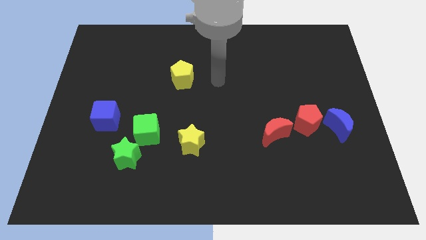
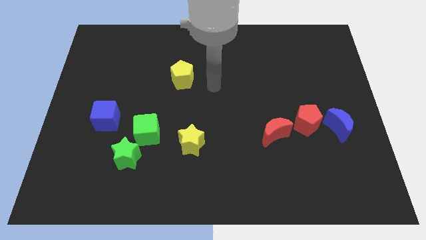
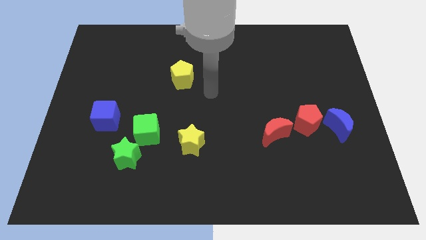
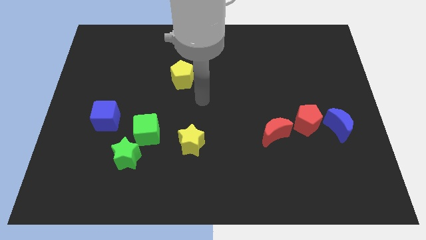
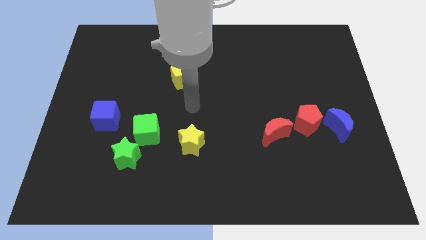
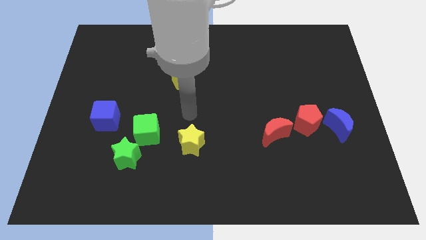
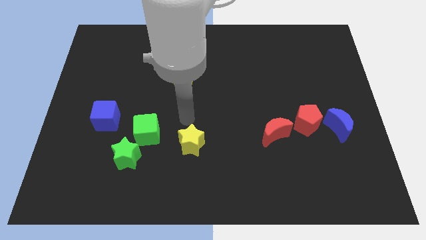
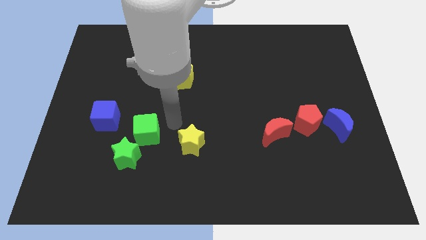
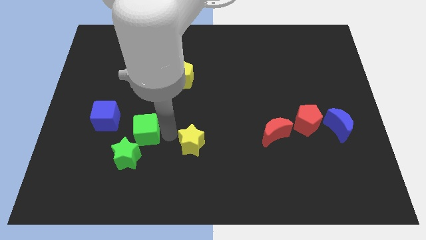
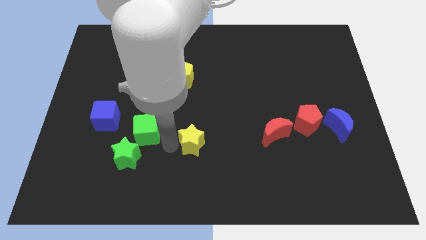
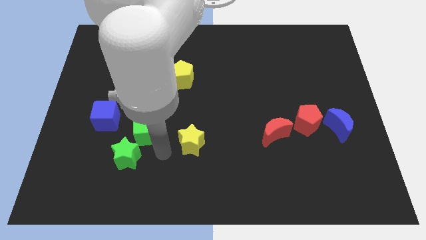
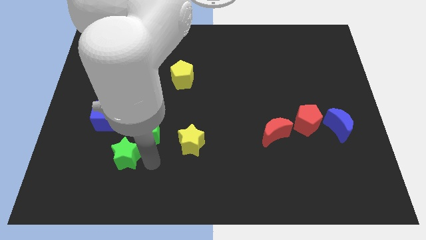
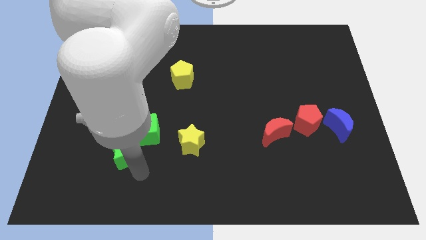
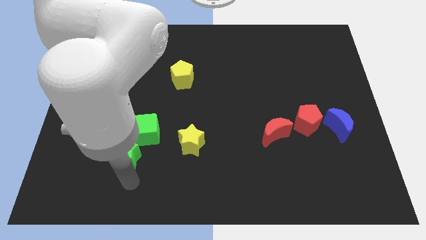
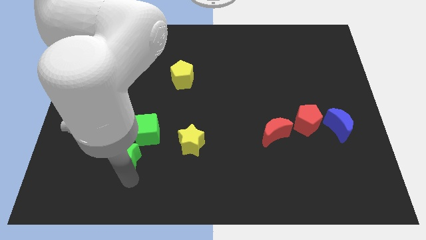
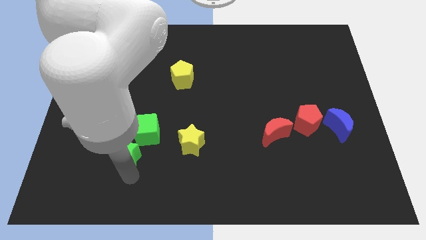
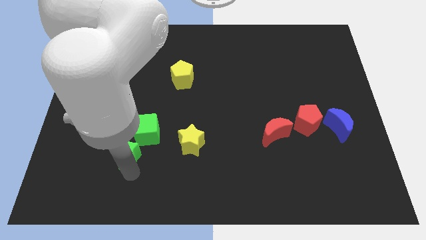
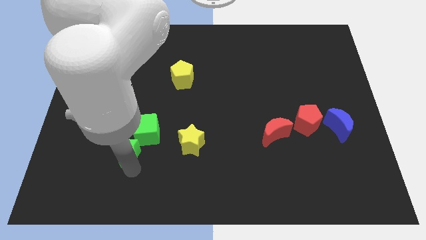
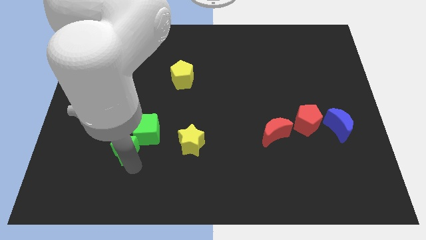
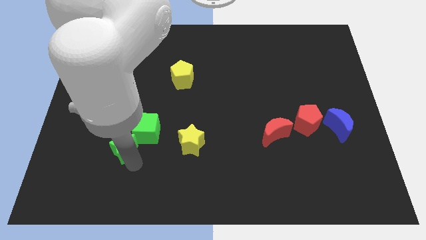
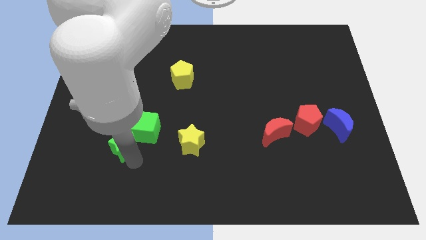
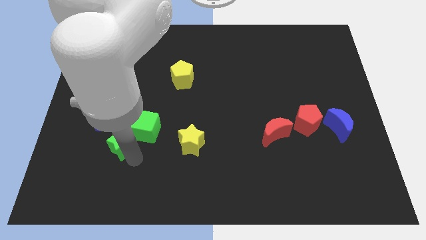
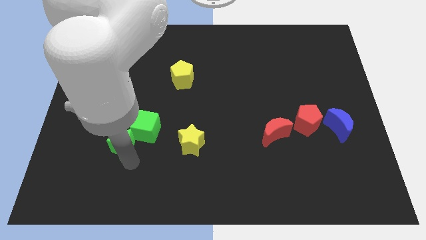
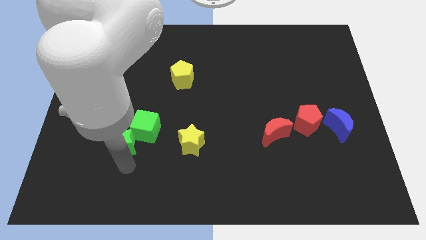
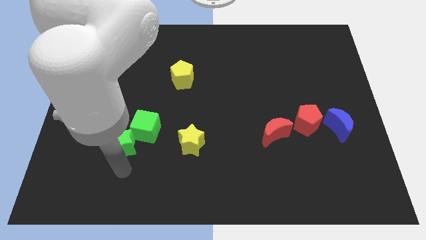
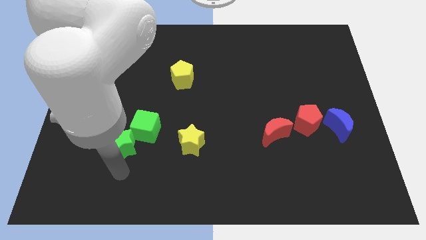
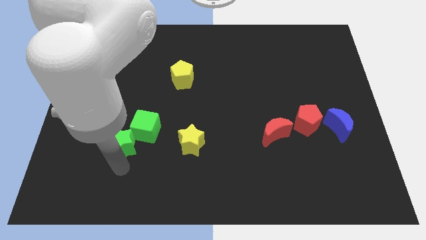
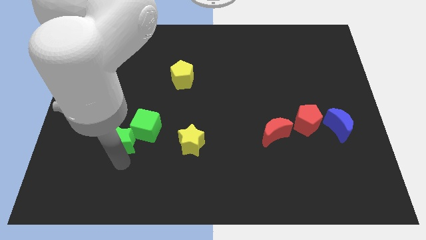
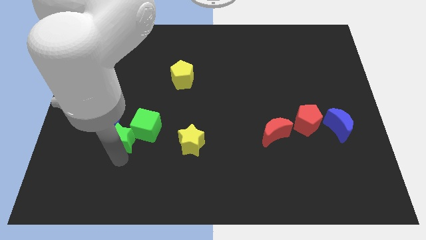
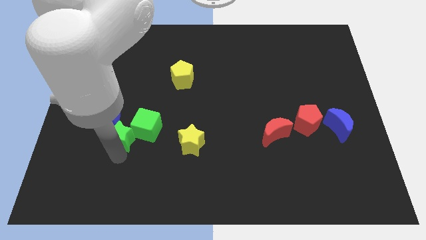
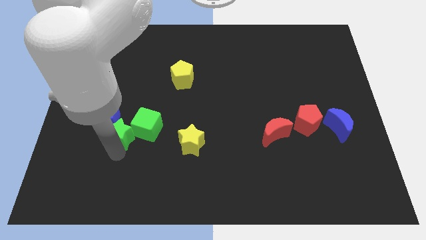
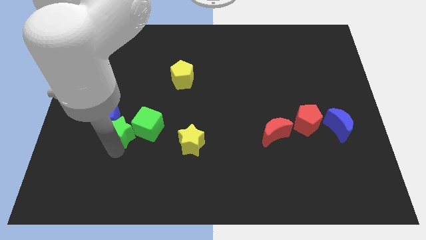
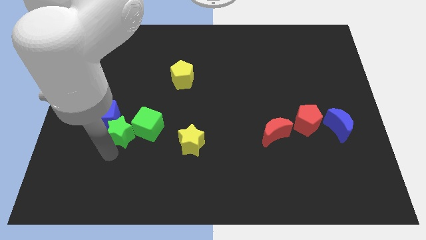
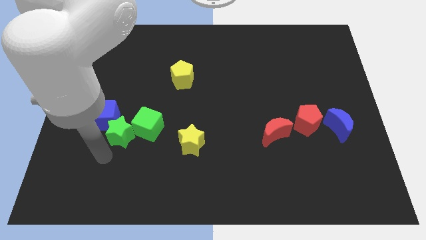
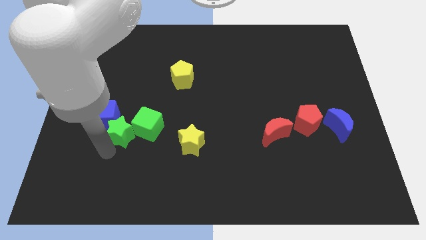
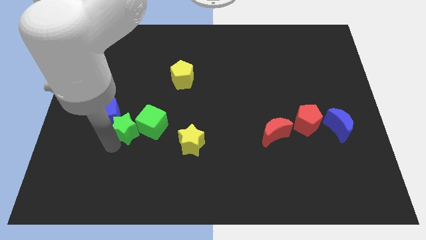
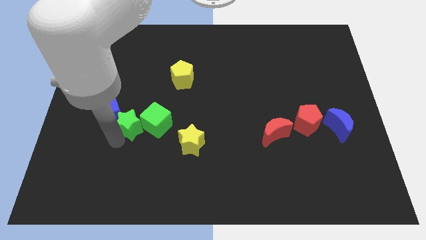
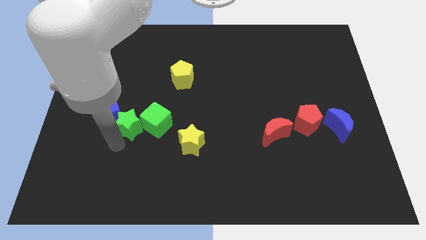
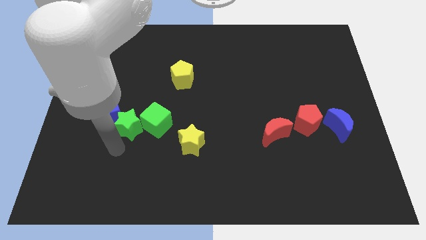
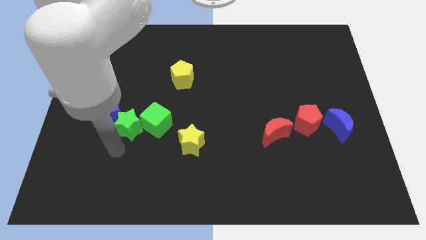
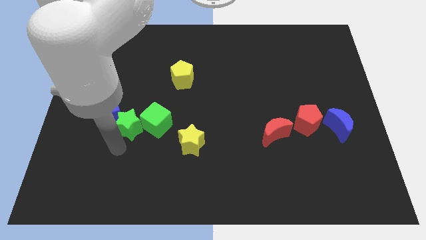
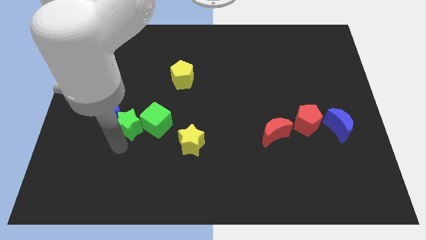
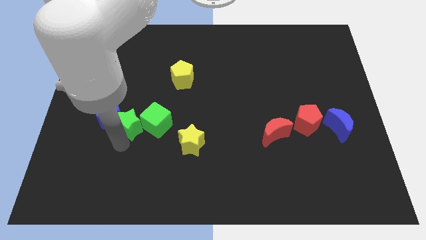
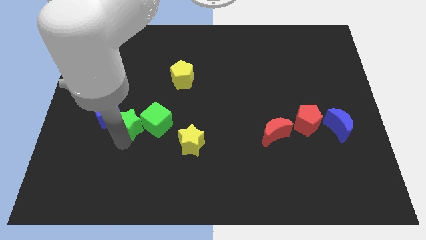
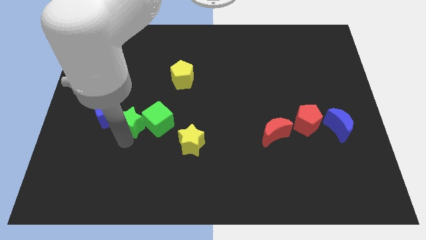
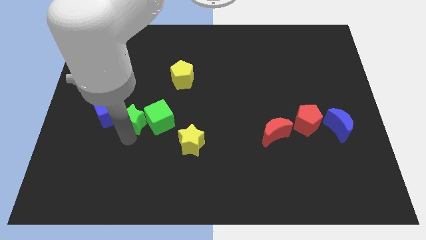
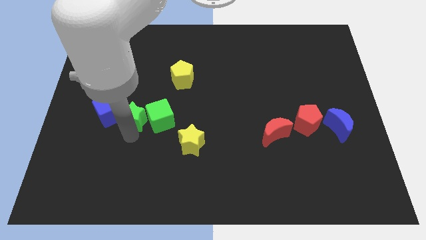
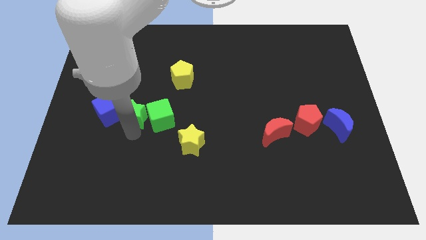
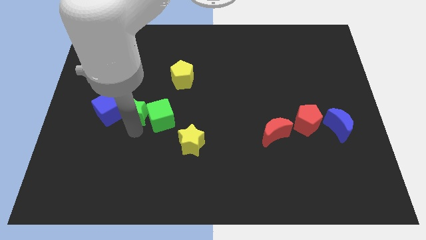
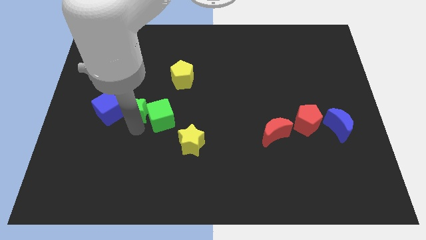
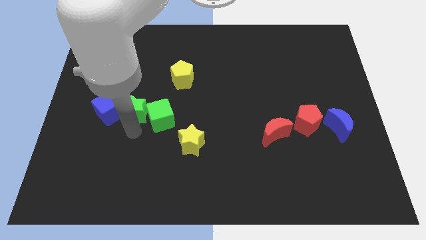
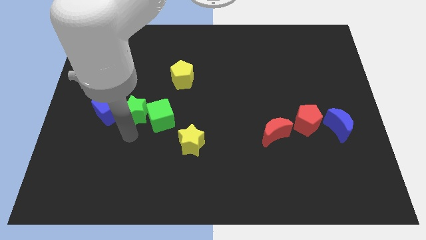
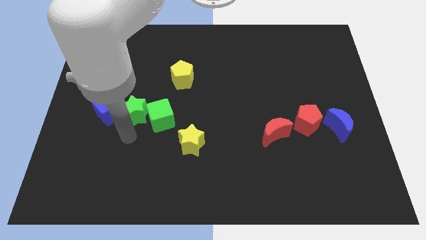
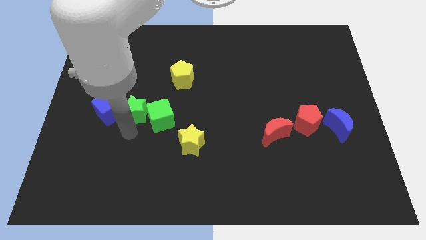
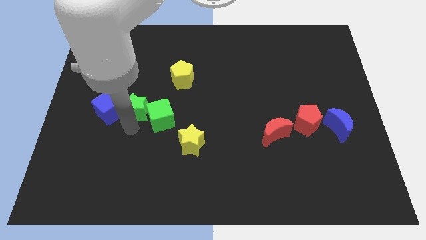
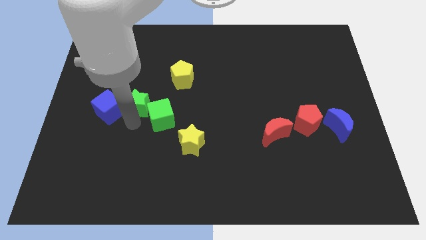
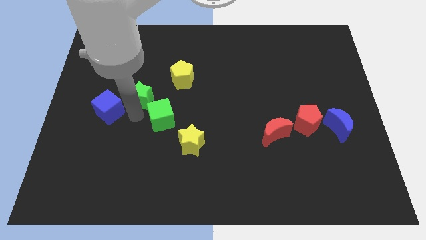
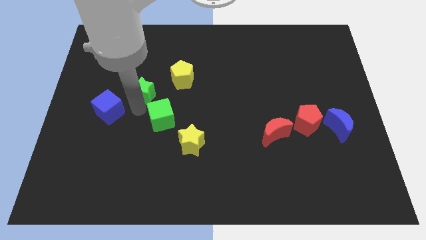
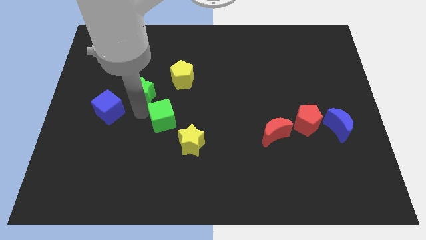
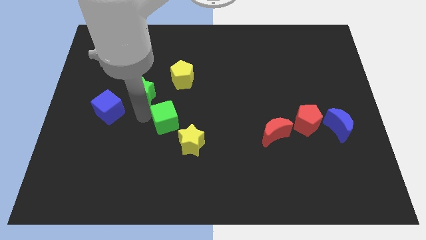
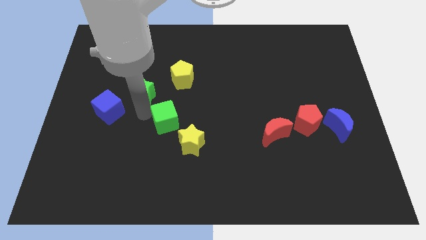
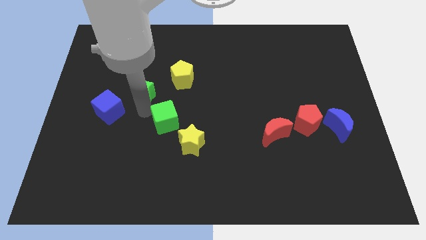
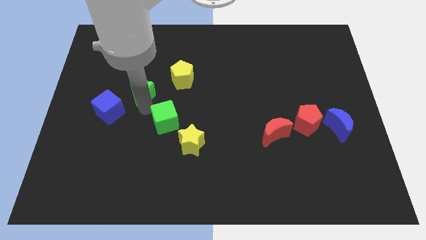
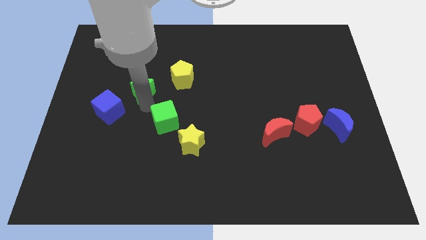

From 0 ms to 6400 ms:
slide the green star to the left of the yellow pentagon

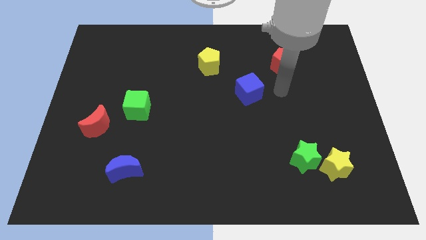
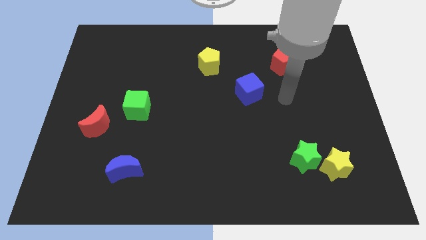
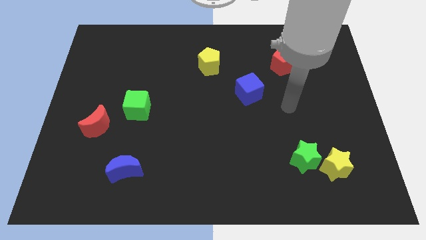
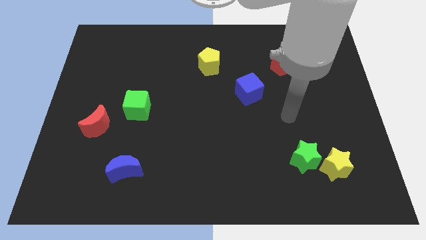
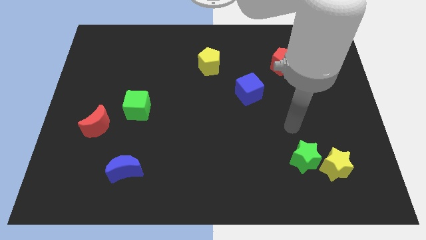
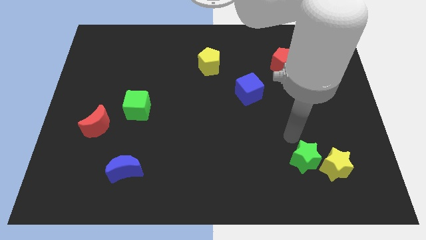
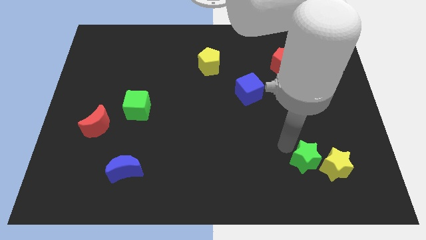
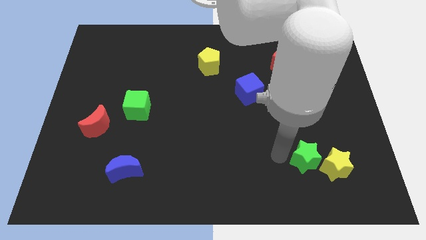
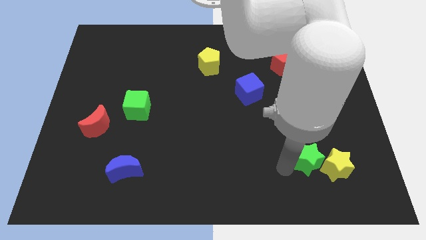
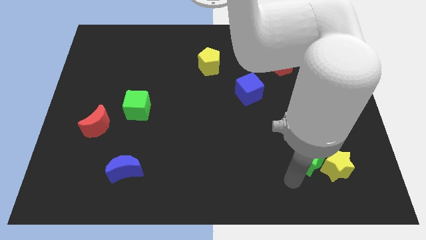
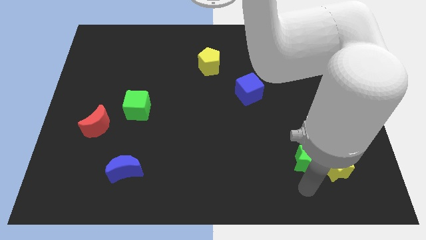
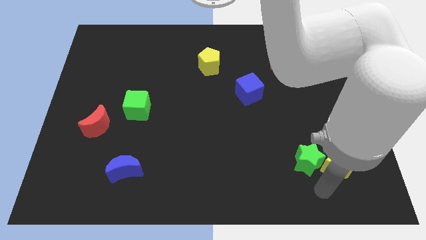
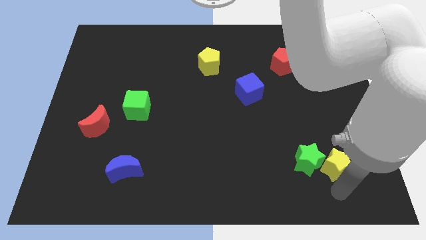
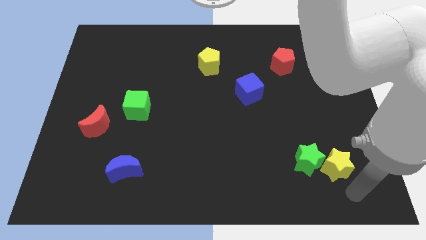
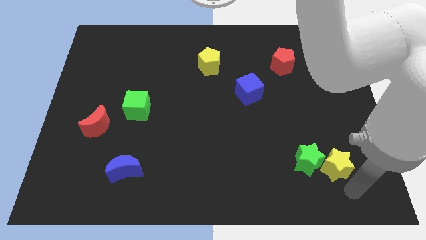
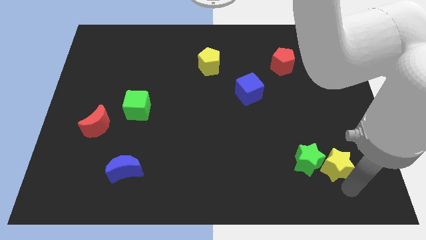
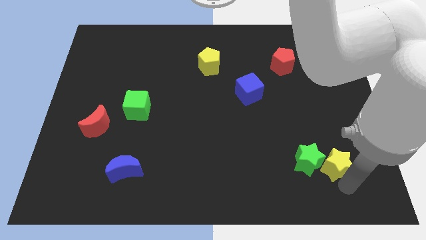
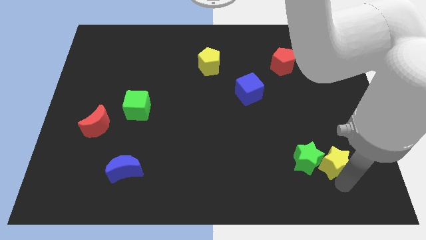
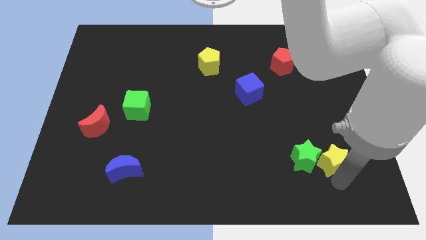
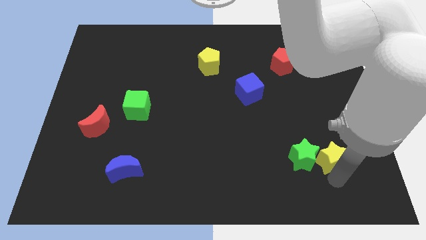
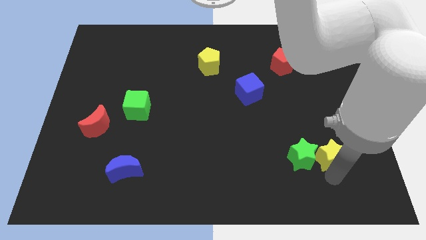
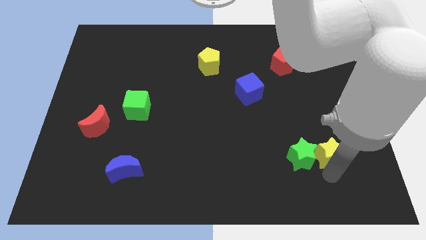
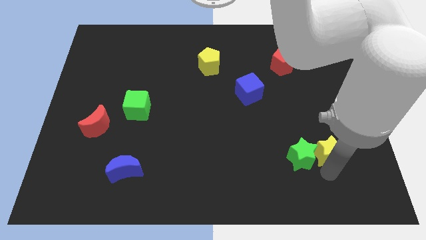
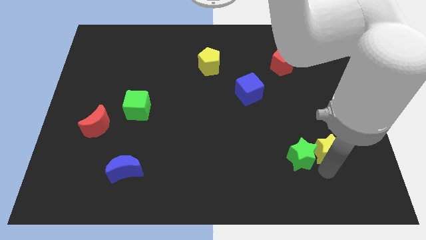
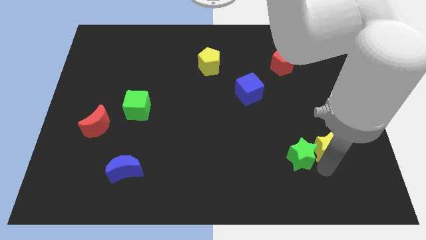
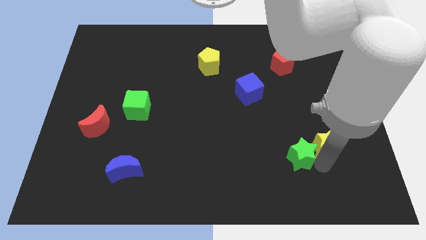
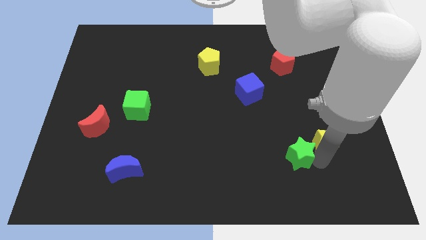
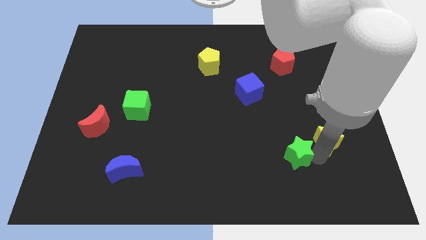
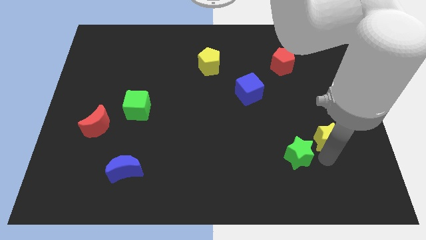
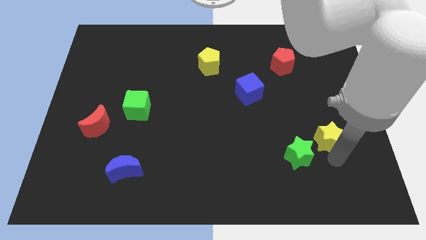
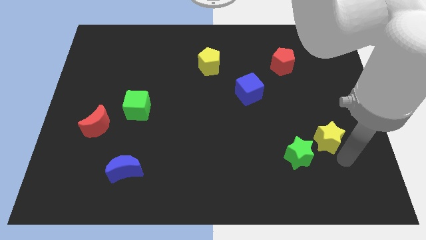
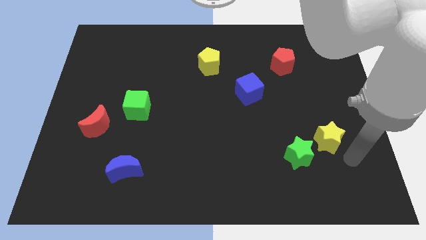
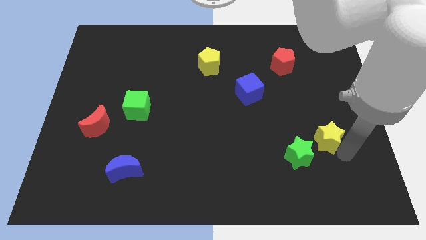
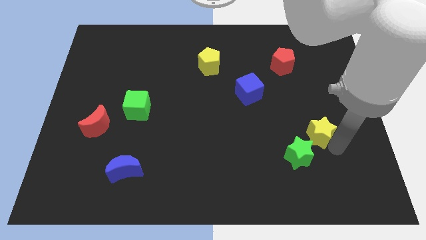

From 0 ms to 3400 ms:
slide the yellow star above the green star
